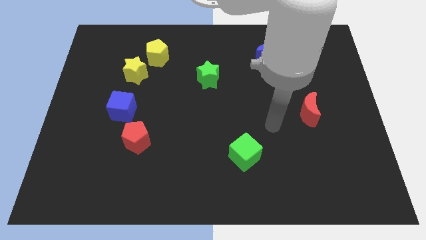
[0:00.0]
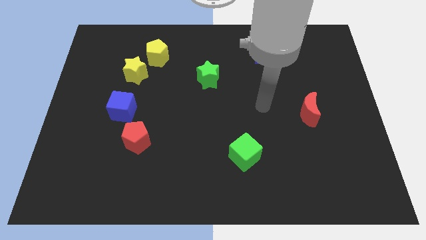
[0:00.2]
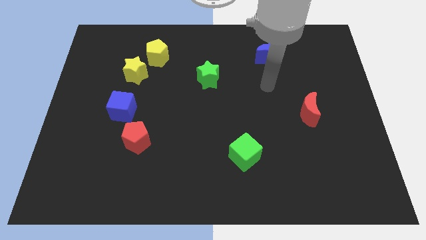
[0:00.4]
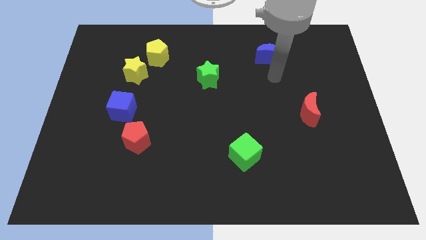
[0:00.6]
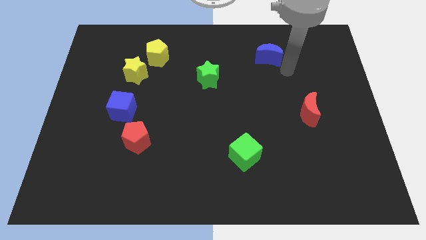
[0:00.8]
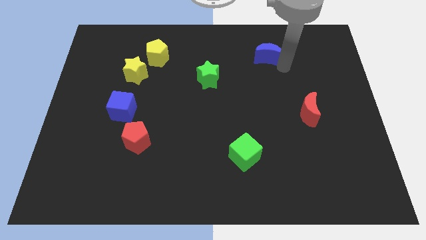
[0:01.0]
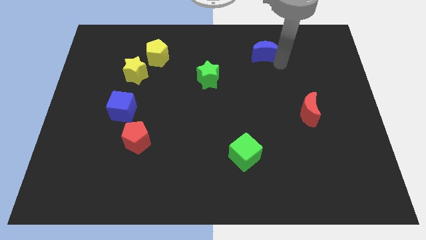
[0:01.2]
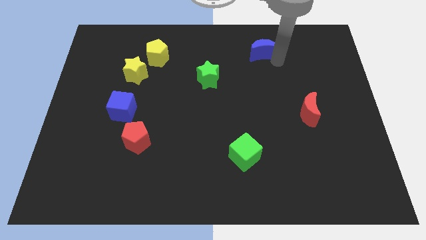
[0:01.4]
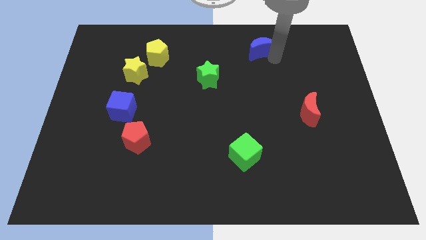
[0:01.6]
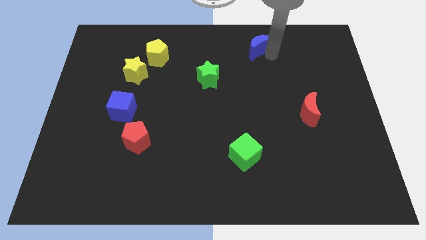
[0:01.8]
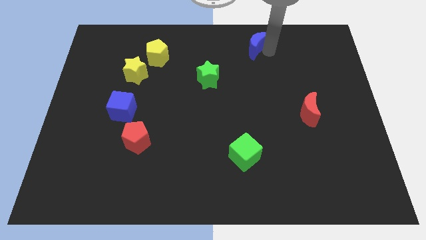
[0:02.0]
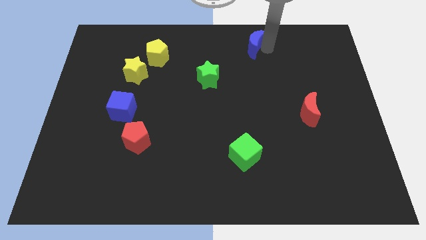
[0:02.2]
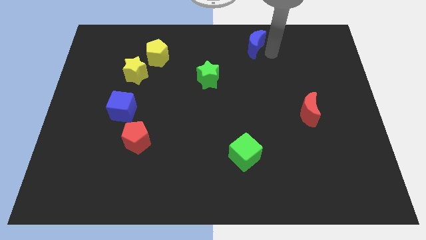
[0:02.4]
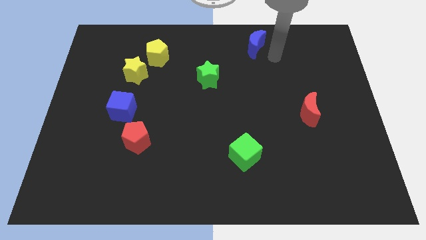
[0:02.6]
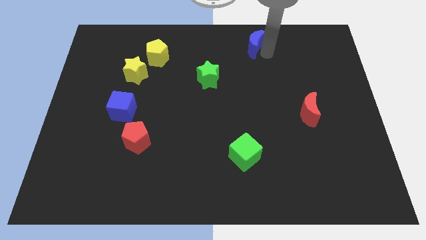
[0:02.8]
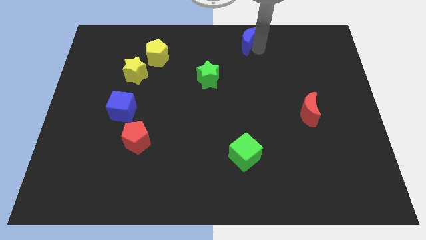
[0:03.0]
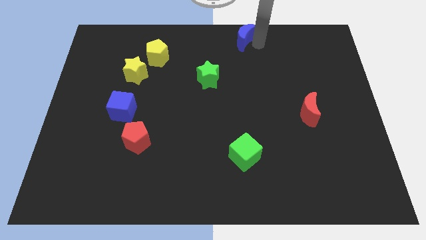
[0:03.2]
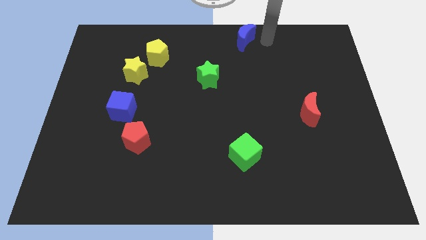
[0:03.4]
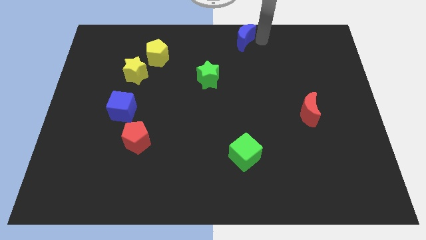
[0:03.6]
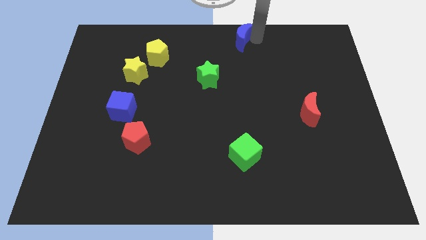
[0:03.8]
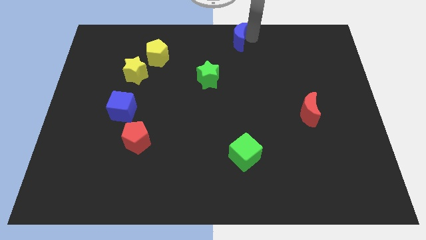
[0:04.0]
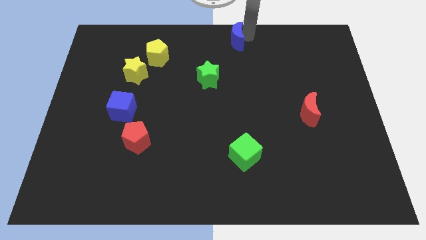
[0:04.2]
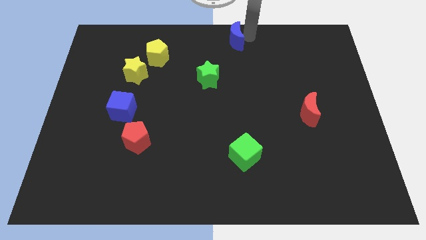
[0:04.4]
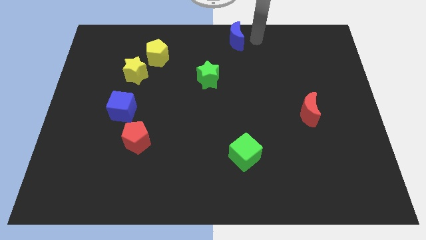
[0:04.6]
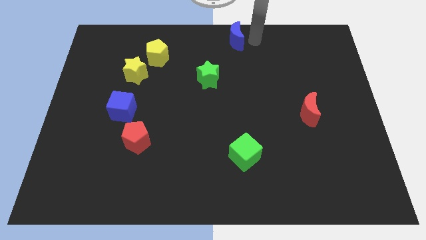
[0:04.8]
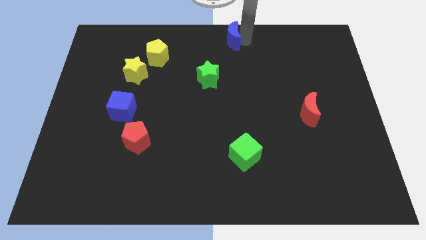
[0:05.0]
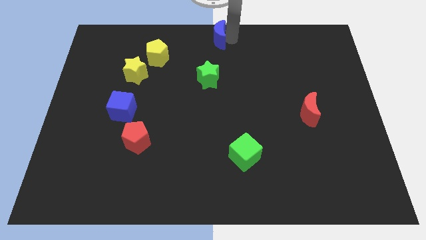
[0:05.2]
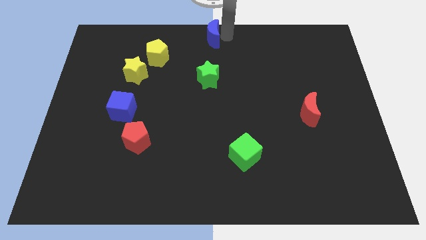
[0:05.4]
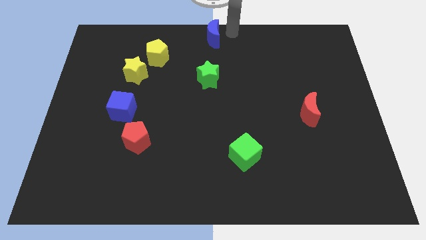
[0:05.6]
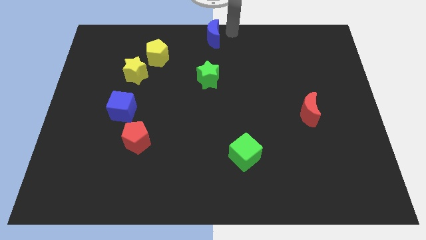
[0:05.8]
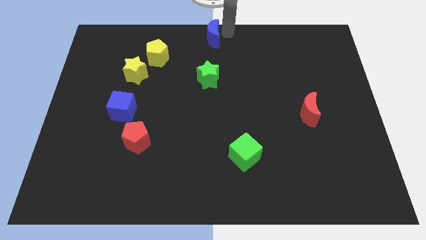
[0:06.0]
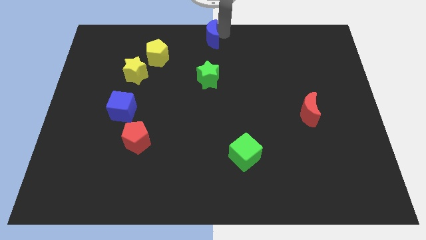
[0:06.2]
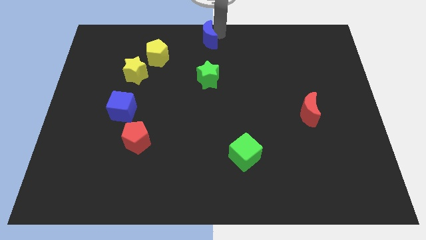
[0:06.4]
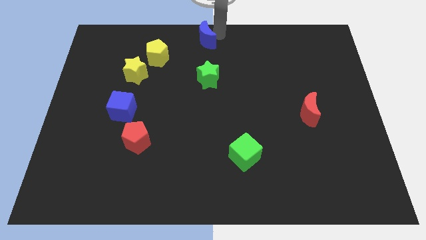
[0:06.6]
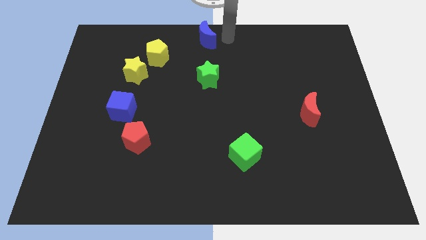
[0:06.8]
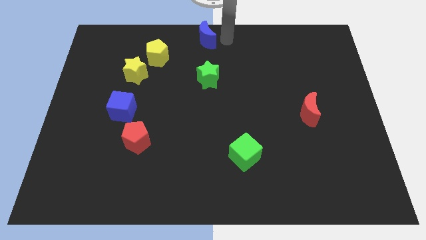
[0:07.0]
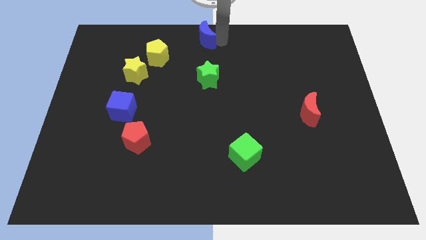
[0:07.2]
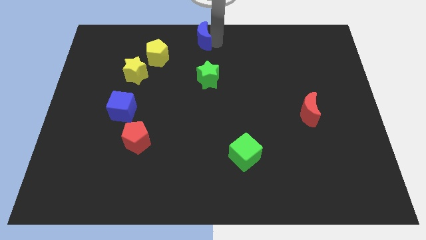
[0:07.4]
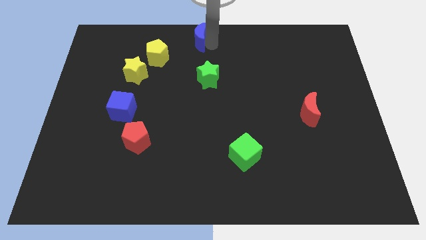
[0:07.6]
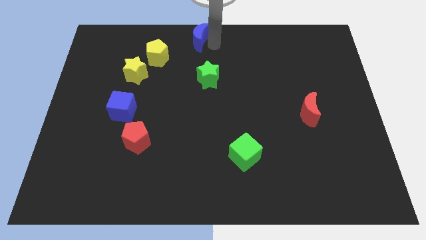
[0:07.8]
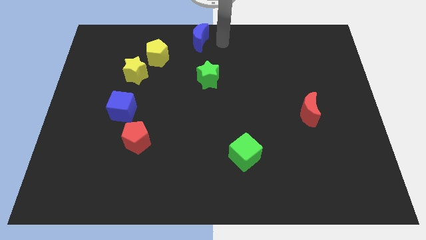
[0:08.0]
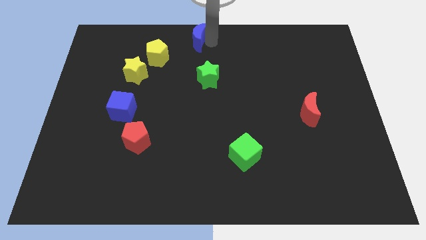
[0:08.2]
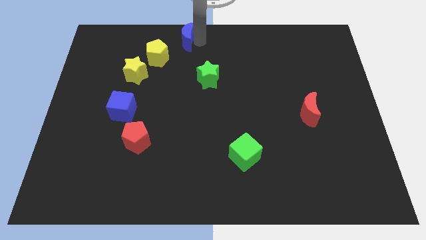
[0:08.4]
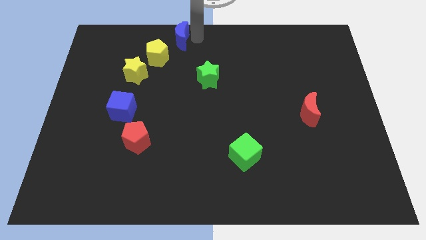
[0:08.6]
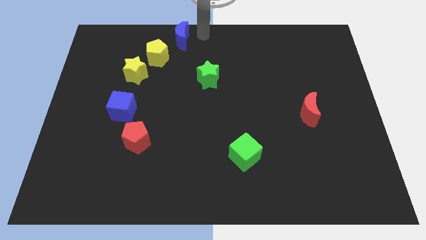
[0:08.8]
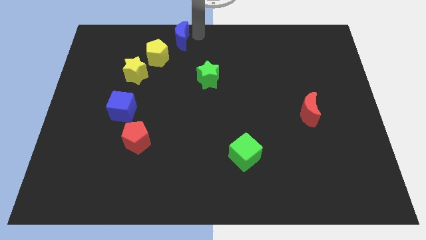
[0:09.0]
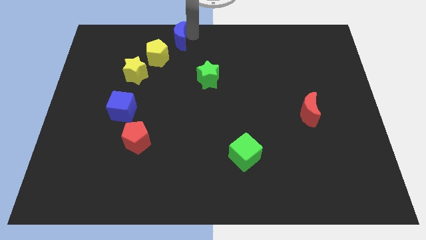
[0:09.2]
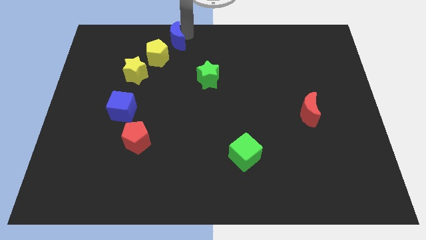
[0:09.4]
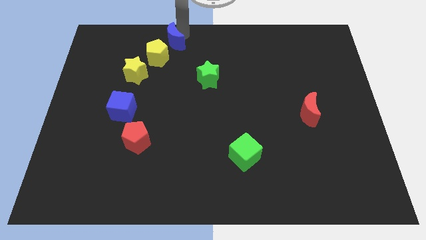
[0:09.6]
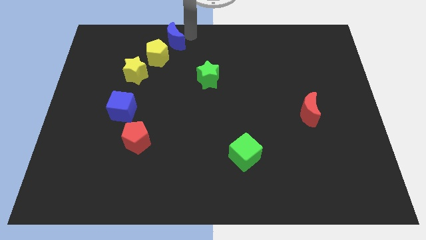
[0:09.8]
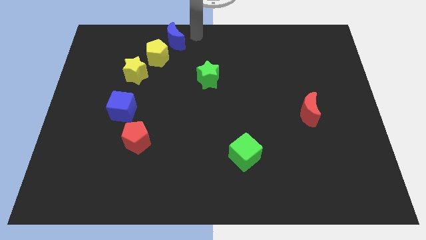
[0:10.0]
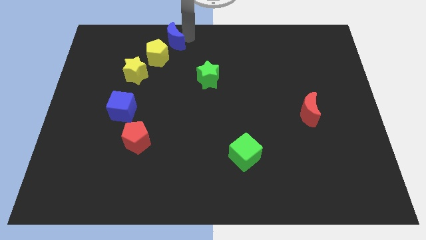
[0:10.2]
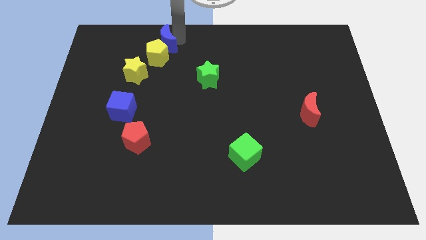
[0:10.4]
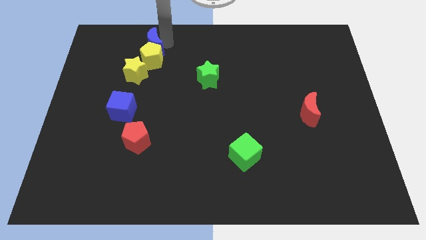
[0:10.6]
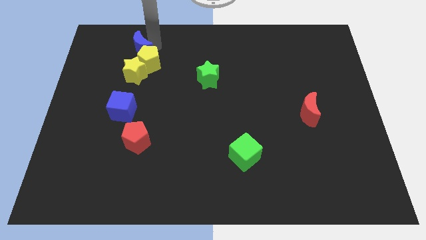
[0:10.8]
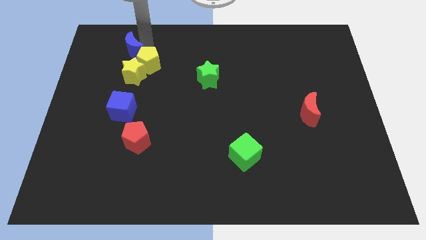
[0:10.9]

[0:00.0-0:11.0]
move the blue moon just left of the yellow pentagon

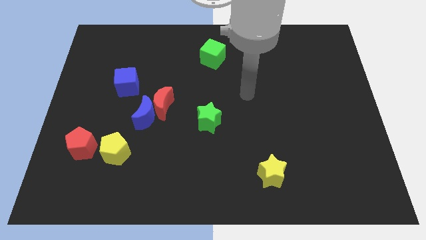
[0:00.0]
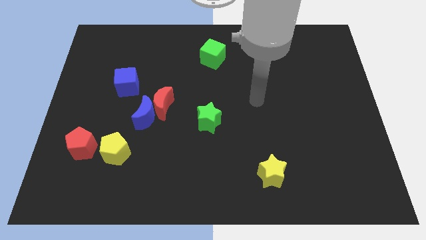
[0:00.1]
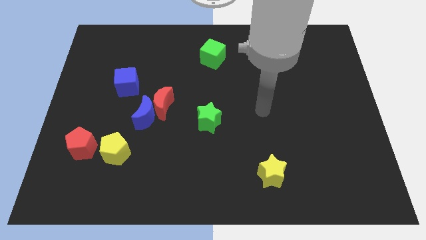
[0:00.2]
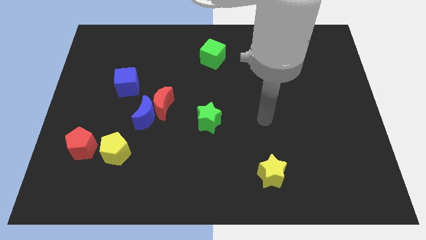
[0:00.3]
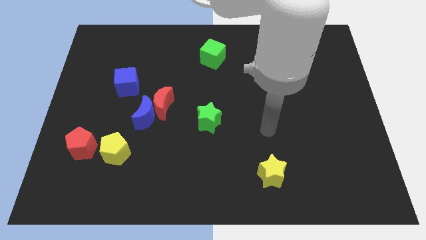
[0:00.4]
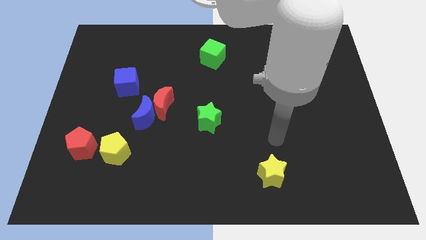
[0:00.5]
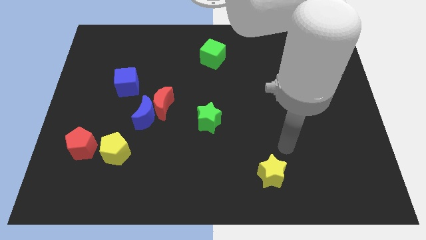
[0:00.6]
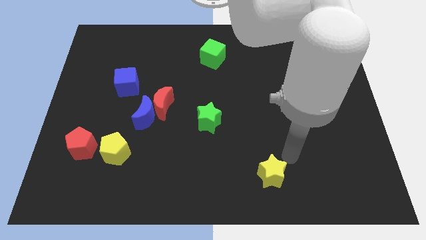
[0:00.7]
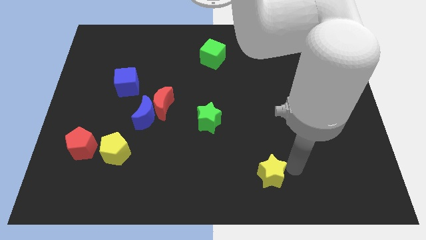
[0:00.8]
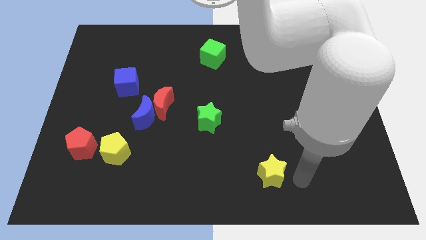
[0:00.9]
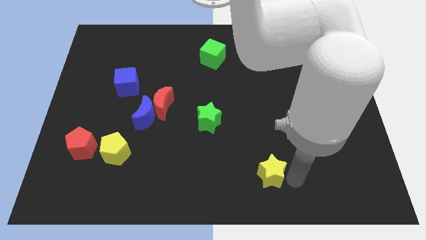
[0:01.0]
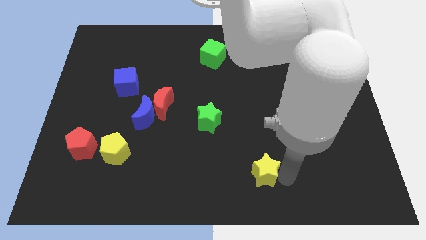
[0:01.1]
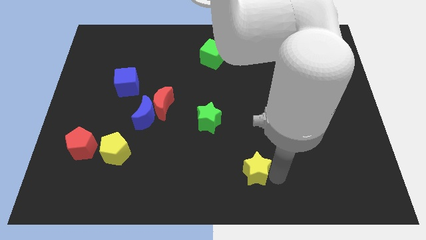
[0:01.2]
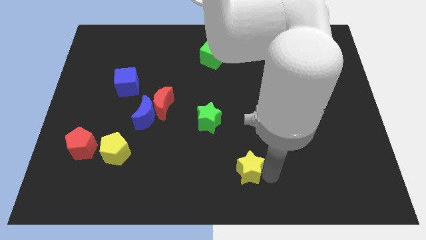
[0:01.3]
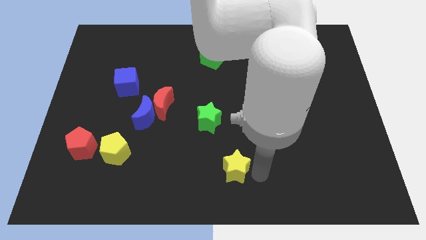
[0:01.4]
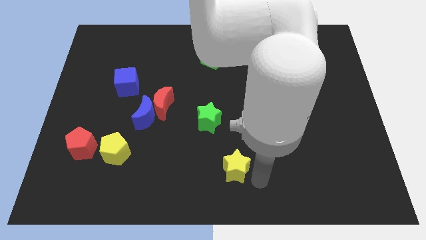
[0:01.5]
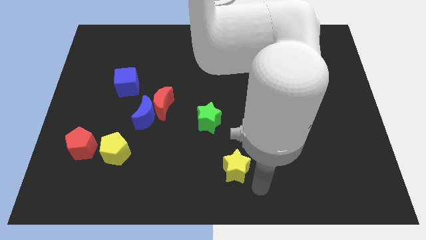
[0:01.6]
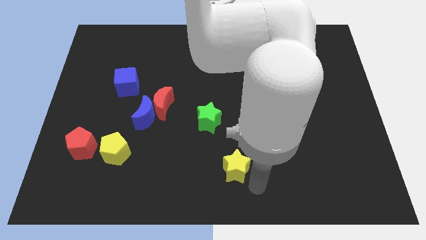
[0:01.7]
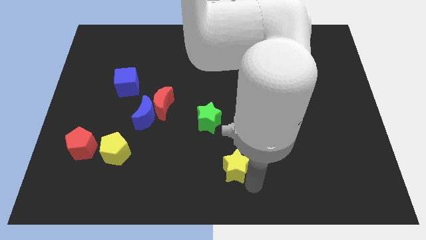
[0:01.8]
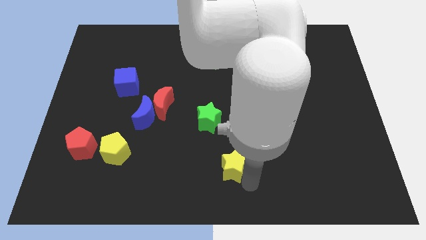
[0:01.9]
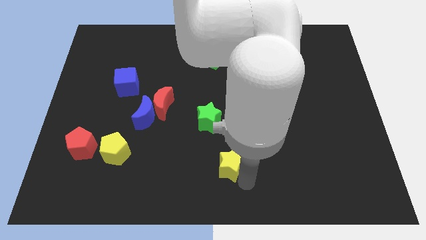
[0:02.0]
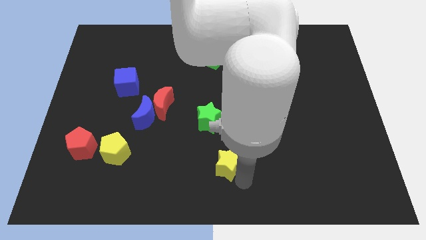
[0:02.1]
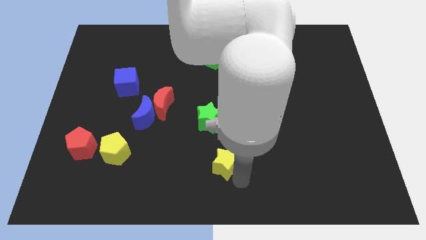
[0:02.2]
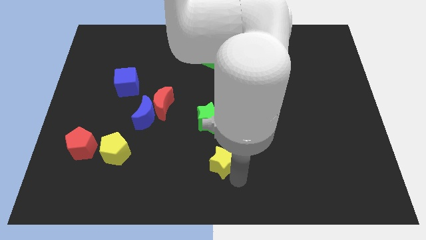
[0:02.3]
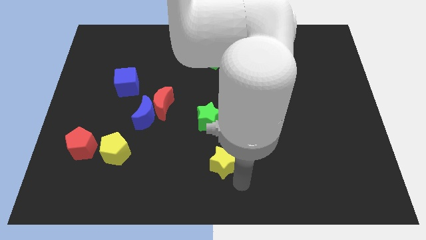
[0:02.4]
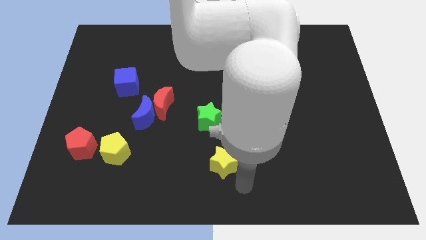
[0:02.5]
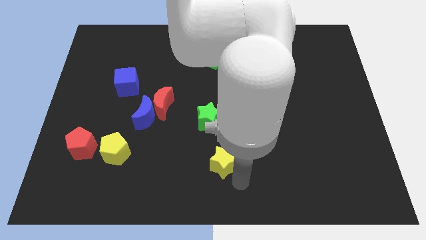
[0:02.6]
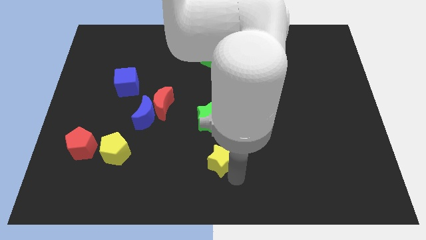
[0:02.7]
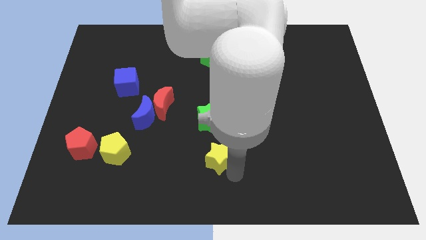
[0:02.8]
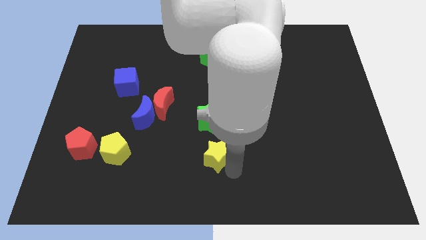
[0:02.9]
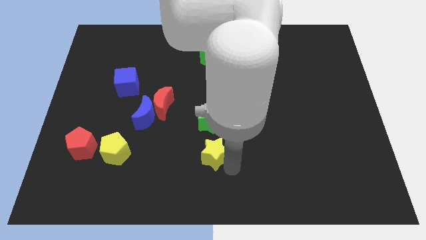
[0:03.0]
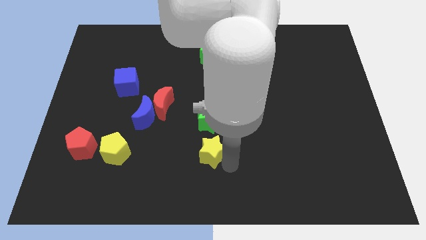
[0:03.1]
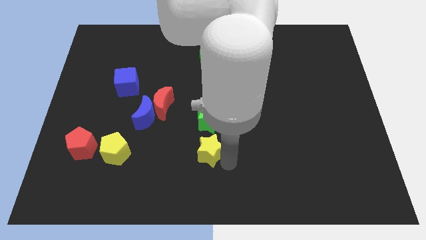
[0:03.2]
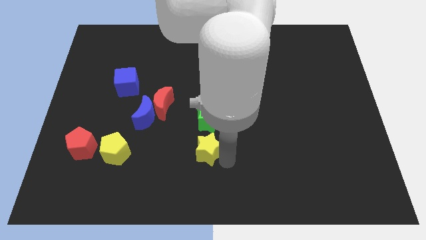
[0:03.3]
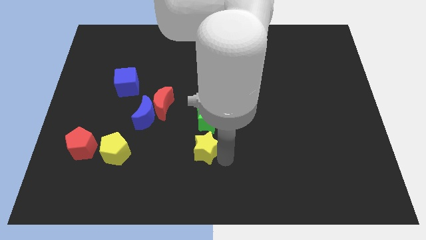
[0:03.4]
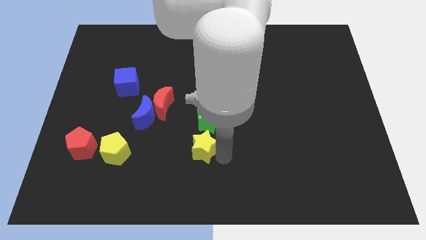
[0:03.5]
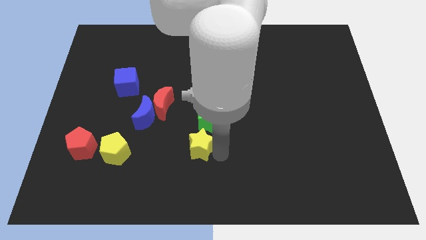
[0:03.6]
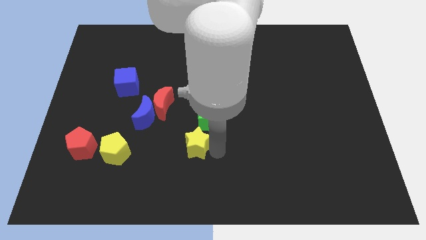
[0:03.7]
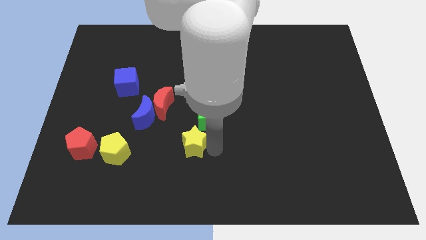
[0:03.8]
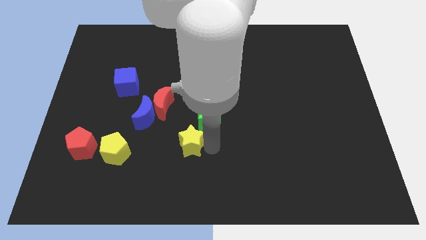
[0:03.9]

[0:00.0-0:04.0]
put the yellow star diagonally down and to the right of the blue moon
